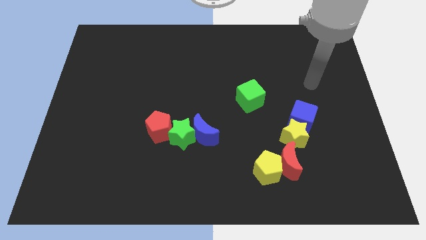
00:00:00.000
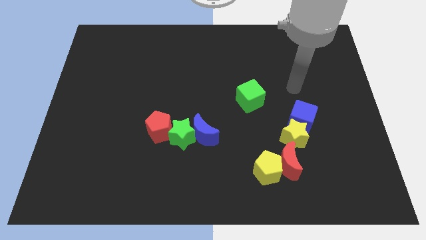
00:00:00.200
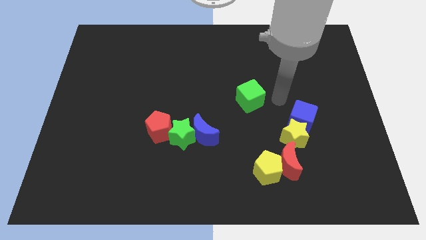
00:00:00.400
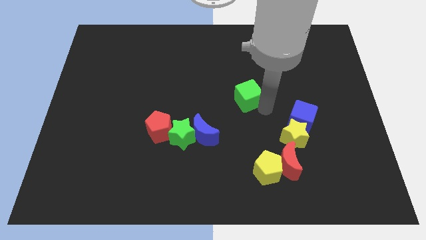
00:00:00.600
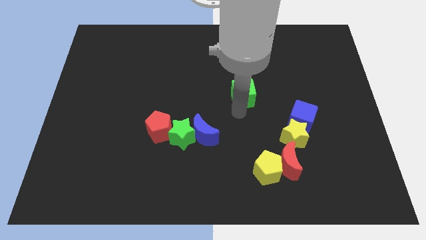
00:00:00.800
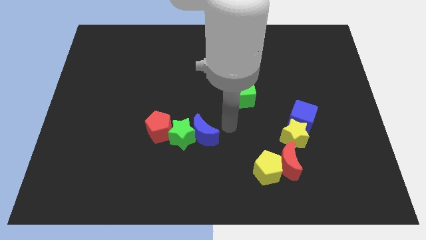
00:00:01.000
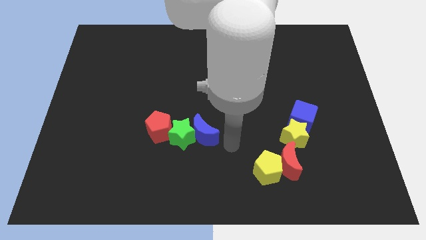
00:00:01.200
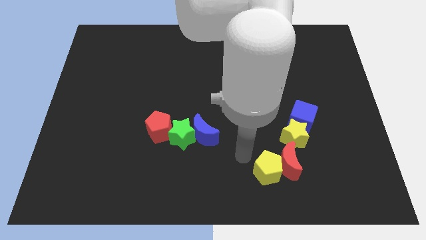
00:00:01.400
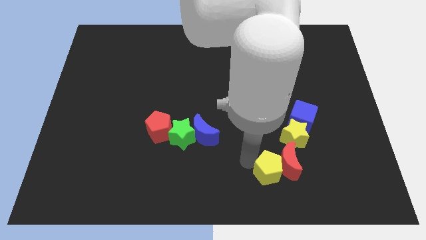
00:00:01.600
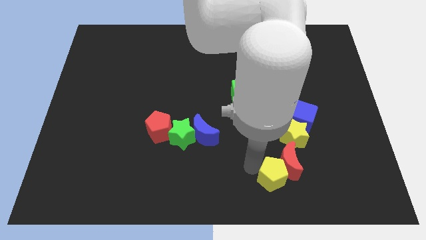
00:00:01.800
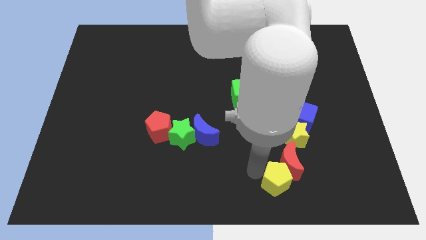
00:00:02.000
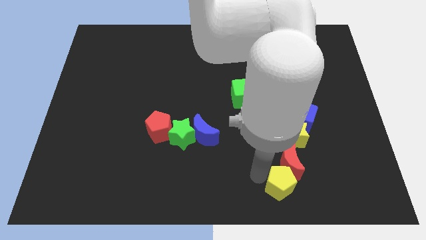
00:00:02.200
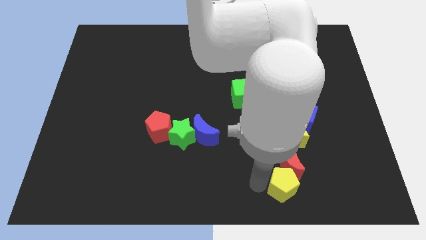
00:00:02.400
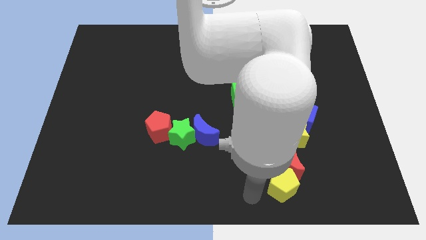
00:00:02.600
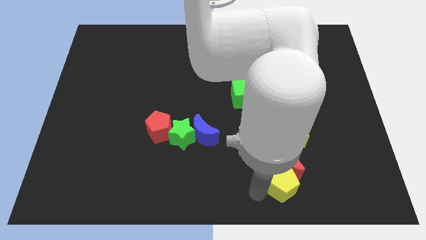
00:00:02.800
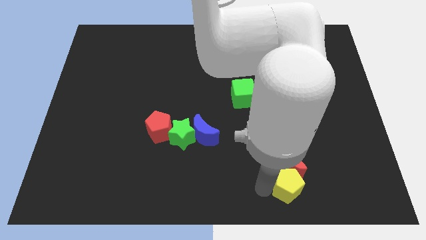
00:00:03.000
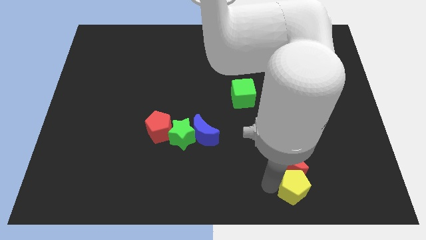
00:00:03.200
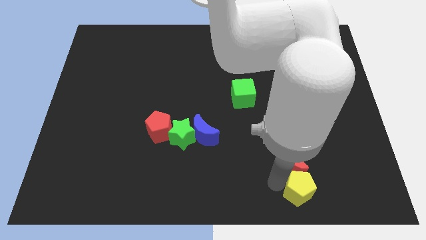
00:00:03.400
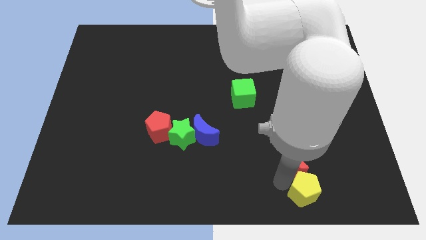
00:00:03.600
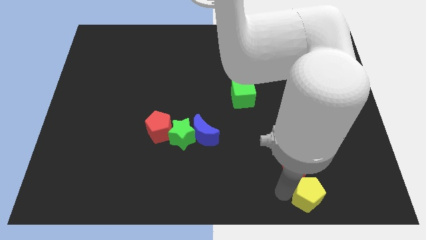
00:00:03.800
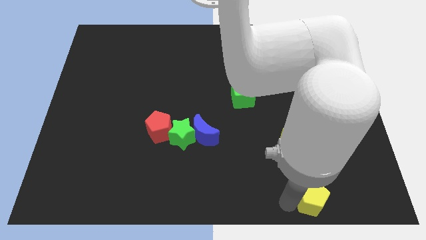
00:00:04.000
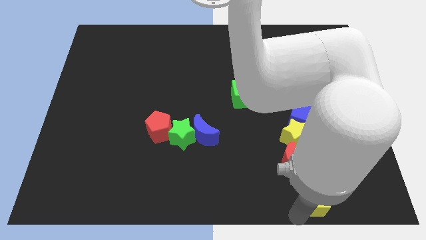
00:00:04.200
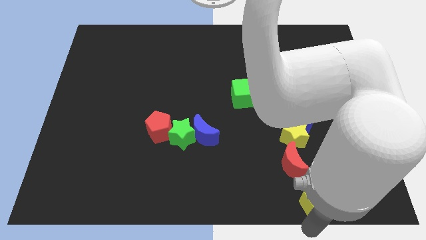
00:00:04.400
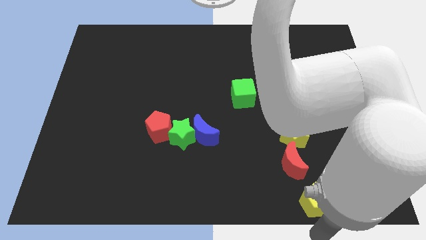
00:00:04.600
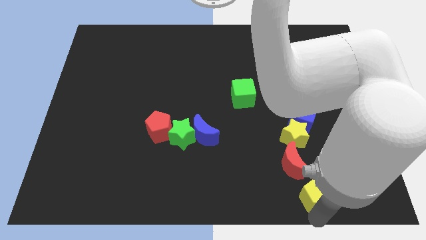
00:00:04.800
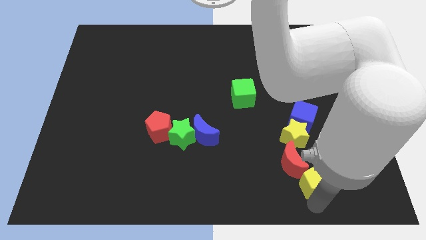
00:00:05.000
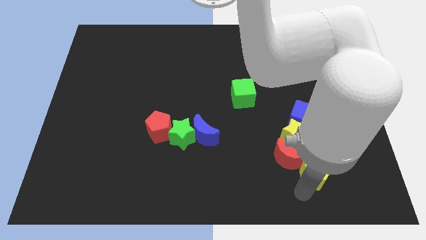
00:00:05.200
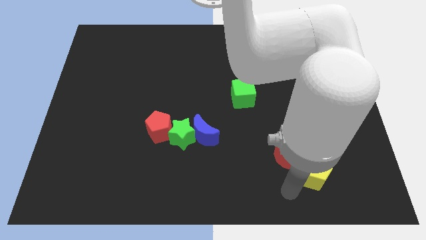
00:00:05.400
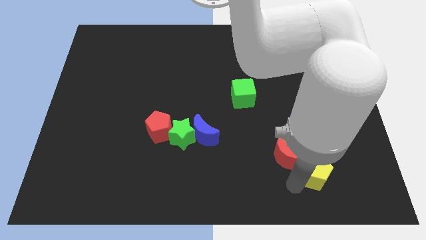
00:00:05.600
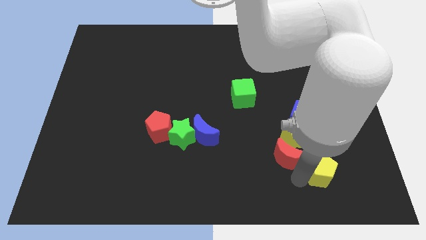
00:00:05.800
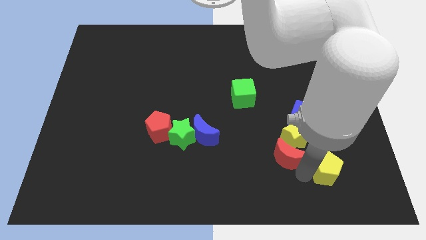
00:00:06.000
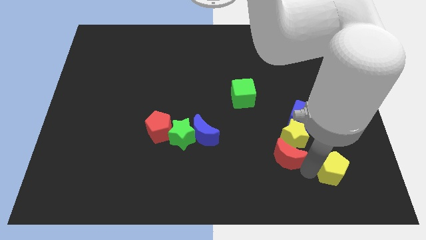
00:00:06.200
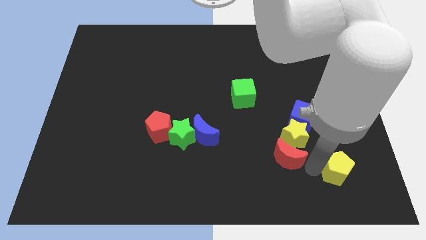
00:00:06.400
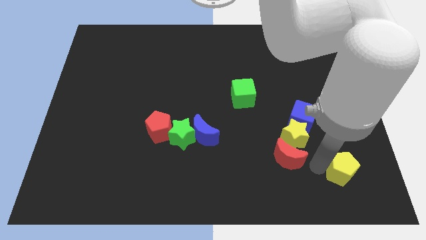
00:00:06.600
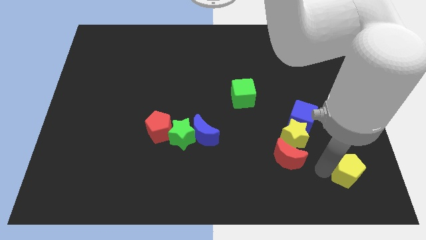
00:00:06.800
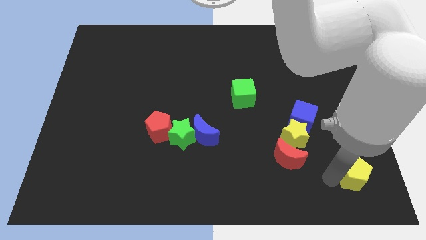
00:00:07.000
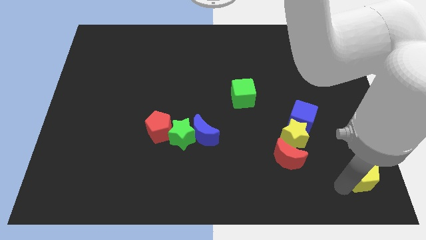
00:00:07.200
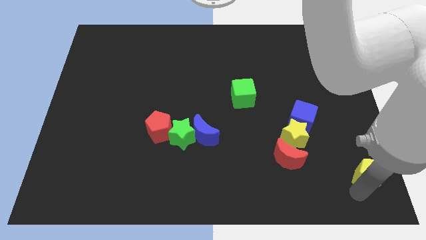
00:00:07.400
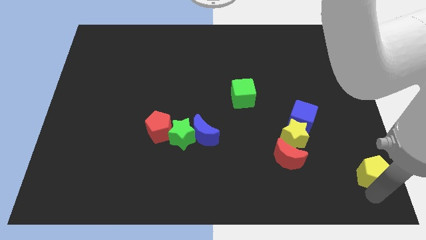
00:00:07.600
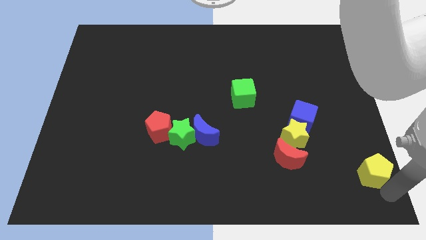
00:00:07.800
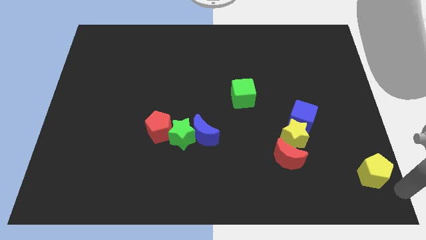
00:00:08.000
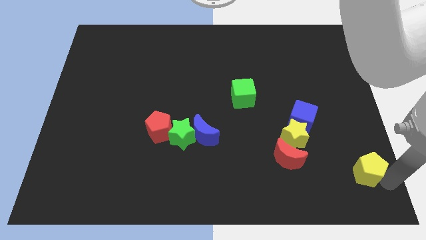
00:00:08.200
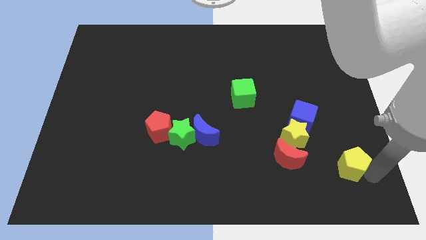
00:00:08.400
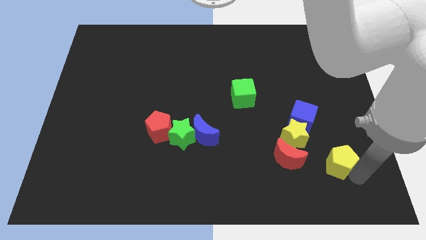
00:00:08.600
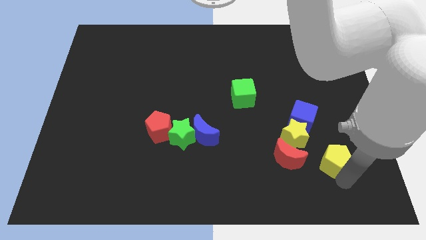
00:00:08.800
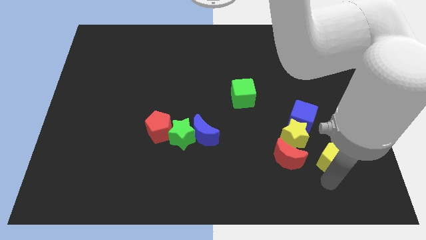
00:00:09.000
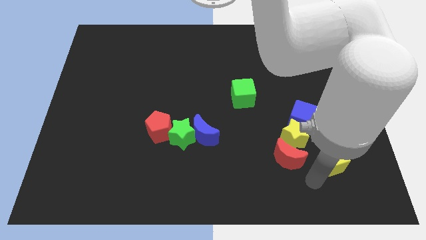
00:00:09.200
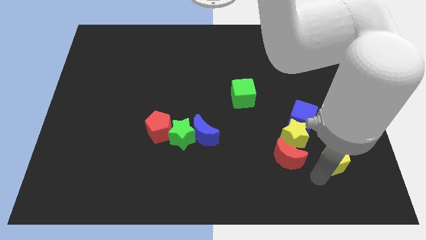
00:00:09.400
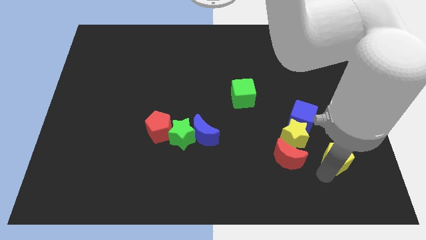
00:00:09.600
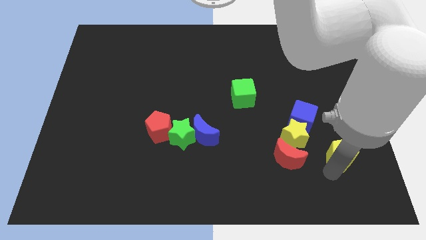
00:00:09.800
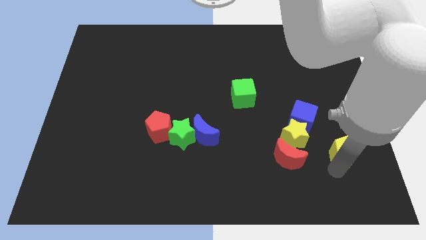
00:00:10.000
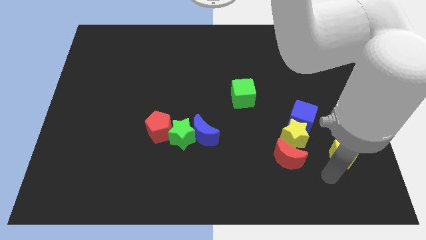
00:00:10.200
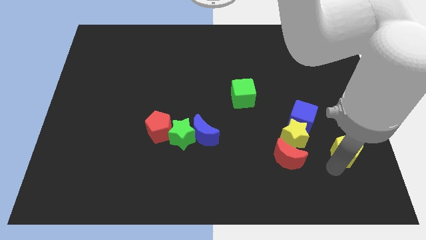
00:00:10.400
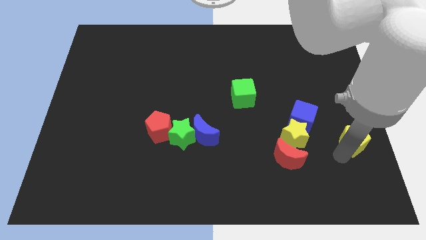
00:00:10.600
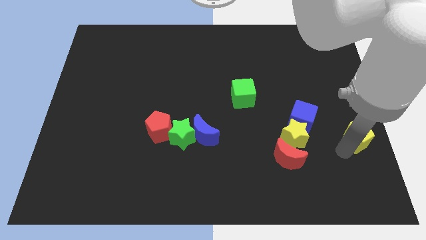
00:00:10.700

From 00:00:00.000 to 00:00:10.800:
slide the yellow pentagon to the right side of the board

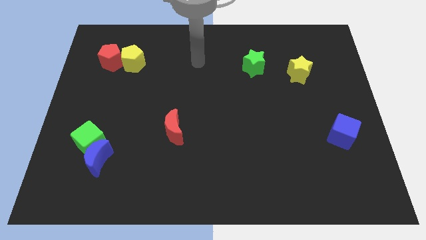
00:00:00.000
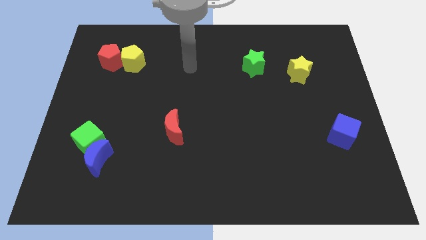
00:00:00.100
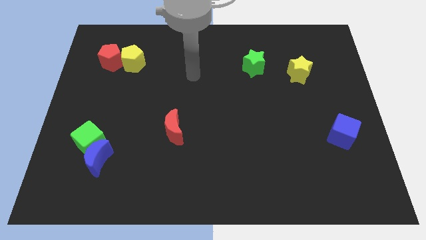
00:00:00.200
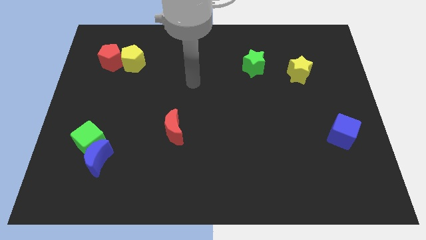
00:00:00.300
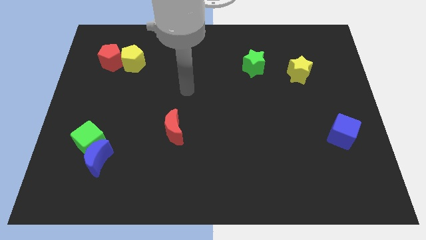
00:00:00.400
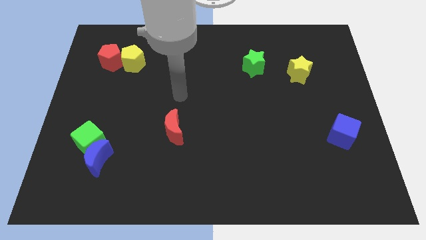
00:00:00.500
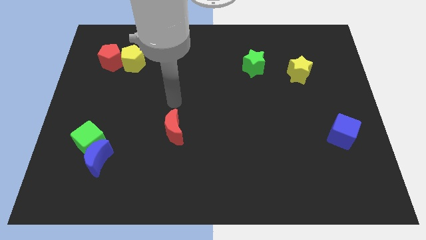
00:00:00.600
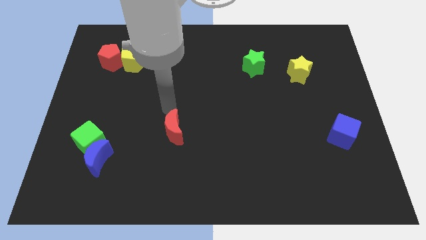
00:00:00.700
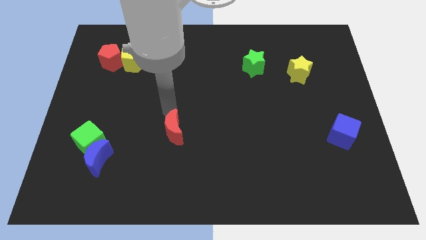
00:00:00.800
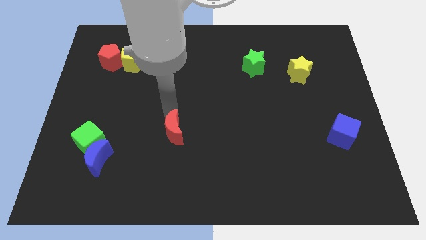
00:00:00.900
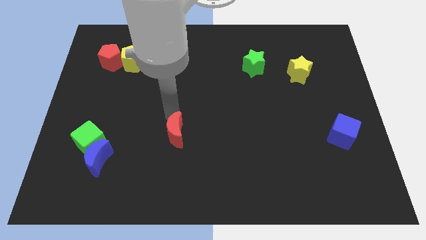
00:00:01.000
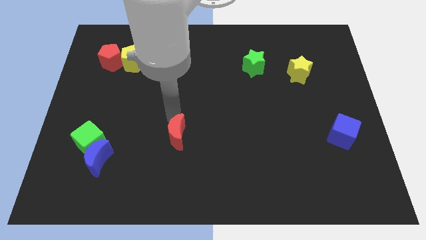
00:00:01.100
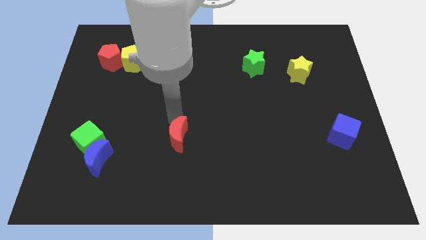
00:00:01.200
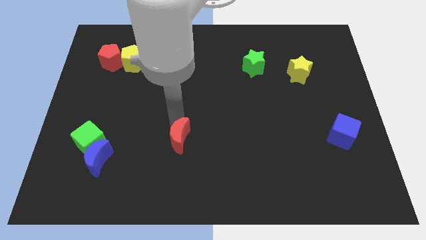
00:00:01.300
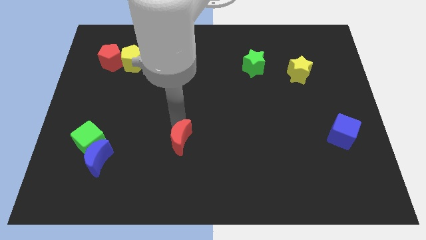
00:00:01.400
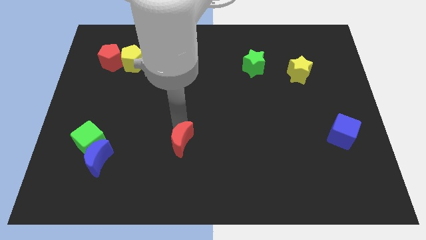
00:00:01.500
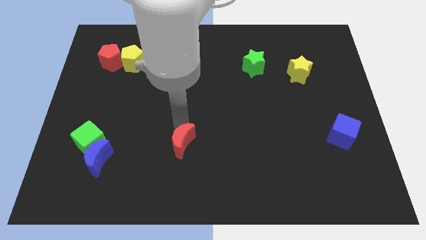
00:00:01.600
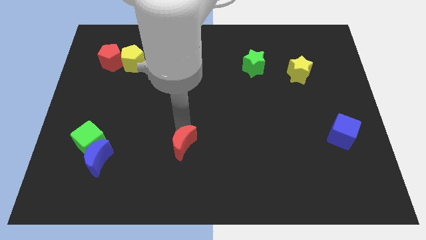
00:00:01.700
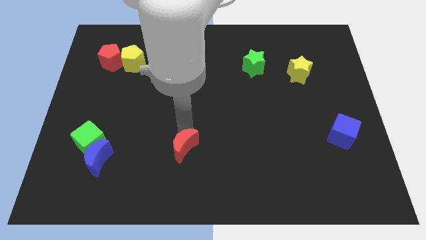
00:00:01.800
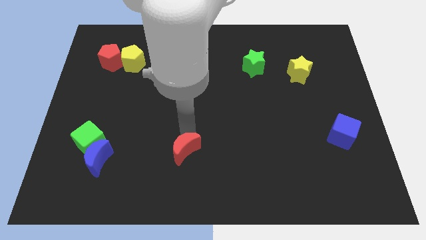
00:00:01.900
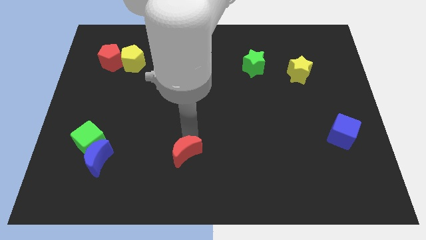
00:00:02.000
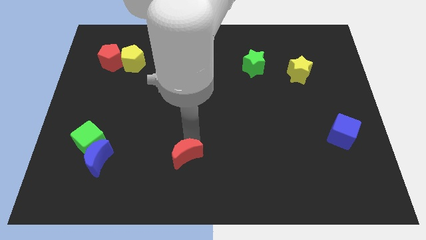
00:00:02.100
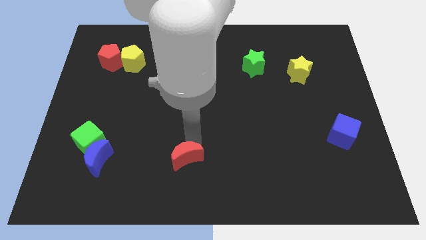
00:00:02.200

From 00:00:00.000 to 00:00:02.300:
put the red moon to the bottom
